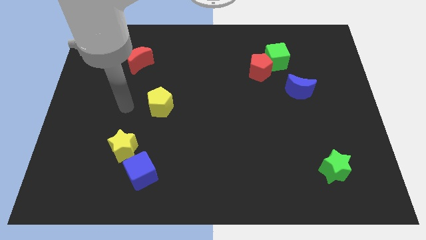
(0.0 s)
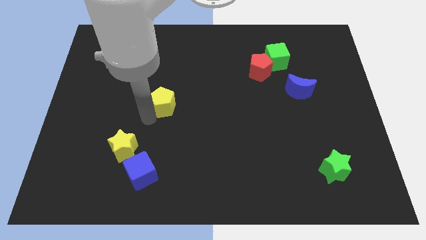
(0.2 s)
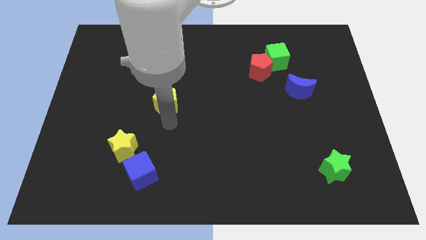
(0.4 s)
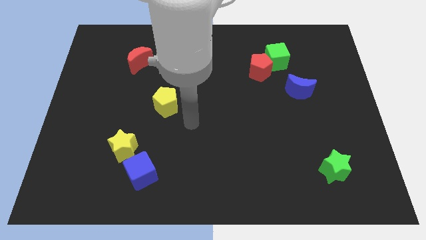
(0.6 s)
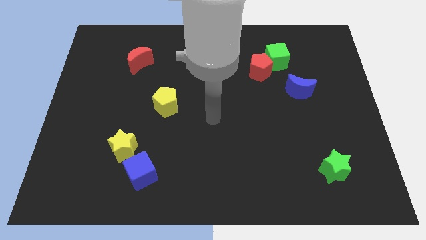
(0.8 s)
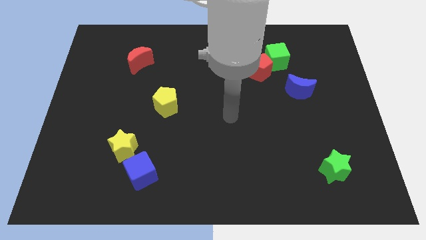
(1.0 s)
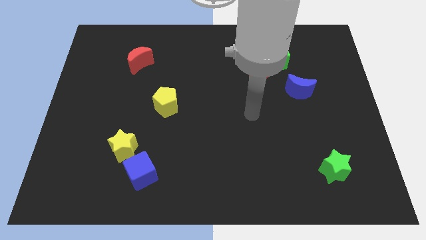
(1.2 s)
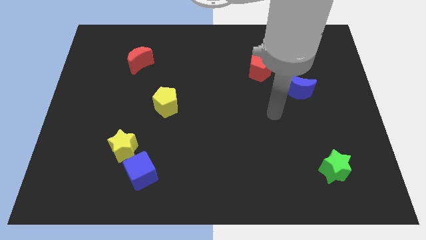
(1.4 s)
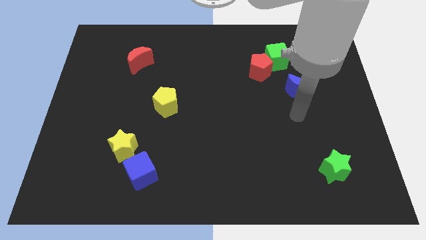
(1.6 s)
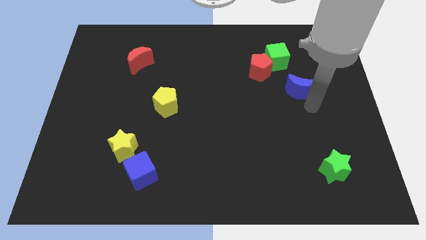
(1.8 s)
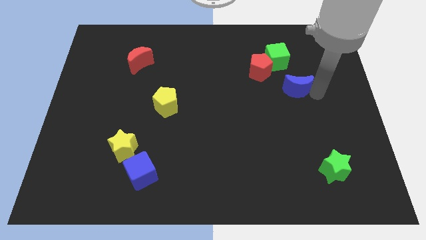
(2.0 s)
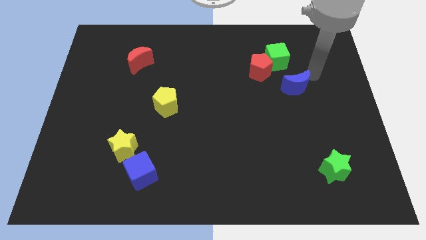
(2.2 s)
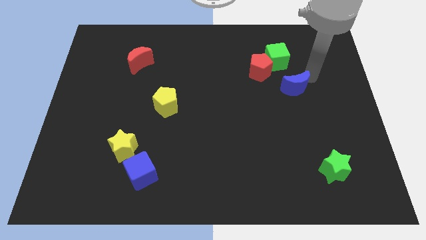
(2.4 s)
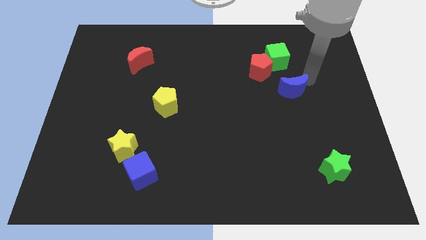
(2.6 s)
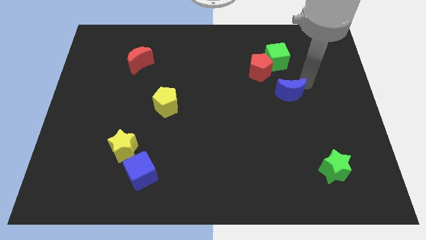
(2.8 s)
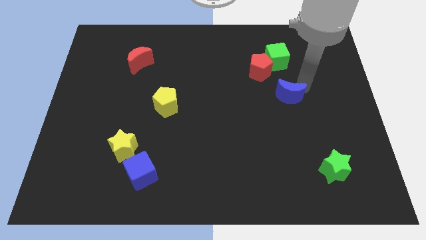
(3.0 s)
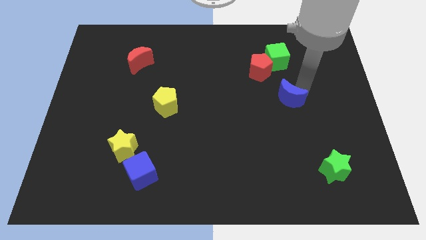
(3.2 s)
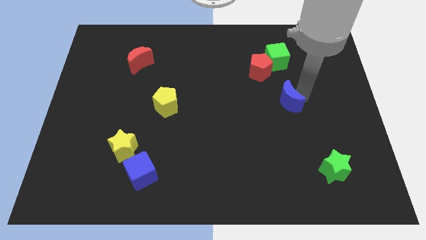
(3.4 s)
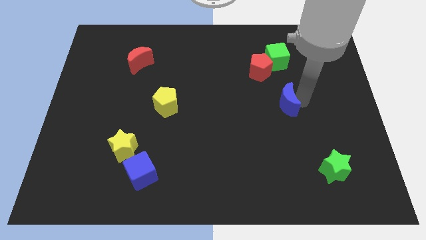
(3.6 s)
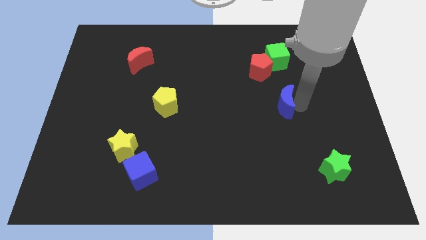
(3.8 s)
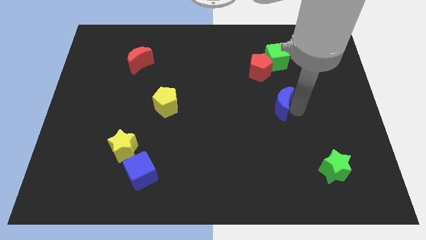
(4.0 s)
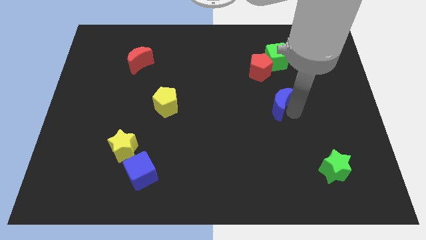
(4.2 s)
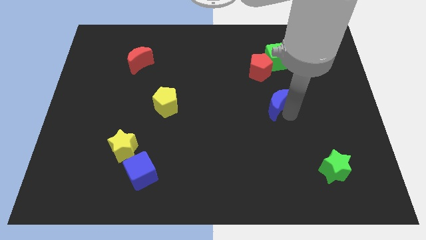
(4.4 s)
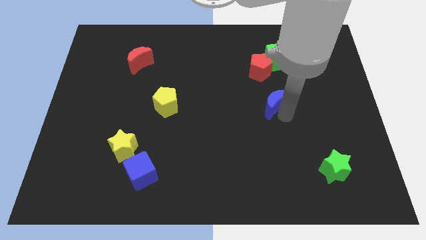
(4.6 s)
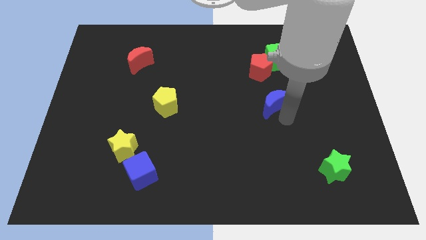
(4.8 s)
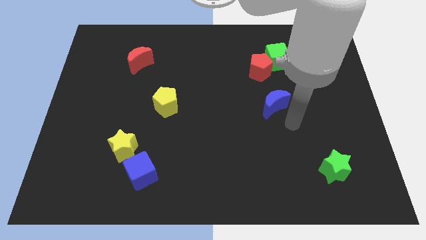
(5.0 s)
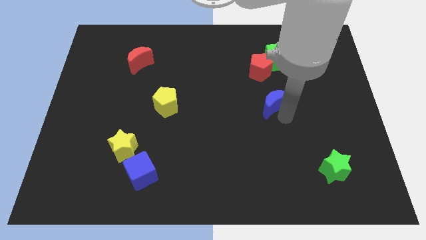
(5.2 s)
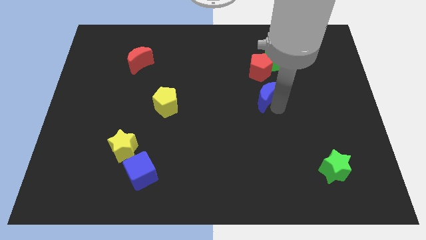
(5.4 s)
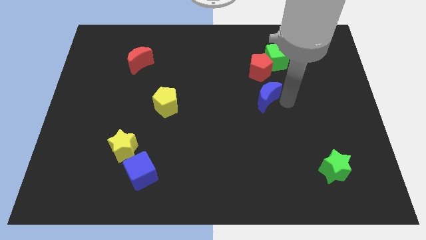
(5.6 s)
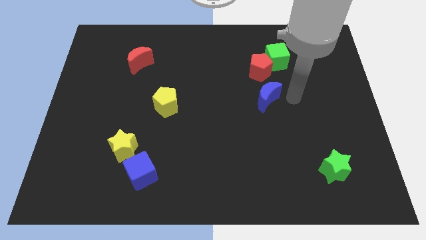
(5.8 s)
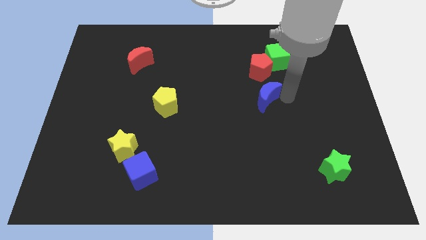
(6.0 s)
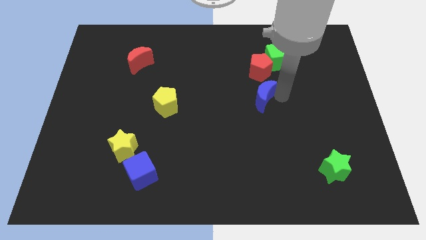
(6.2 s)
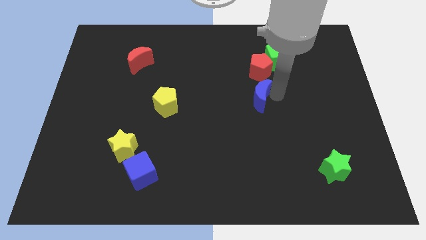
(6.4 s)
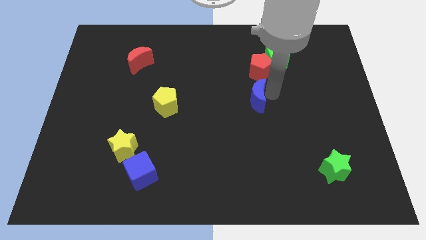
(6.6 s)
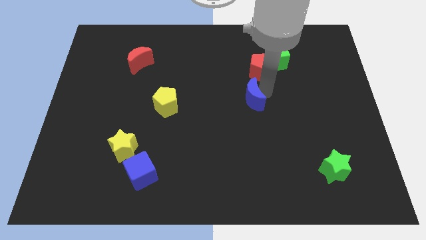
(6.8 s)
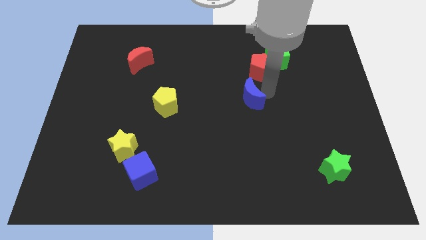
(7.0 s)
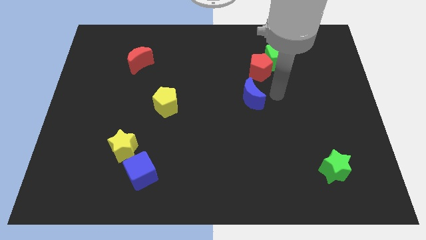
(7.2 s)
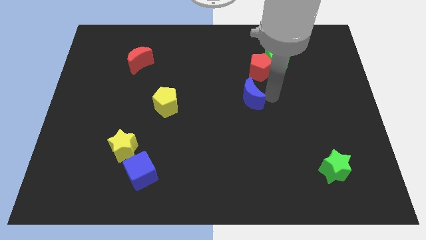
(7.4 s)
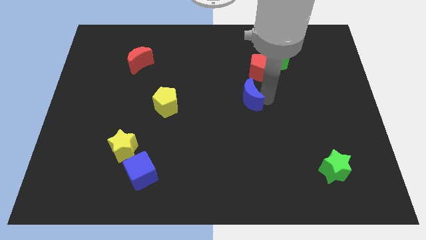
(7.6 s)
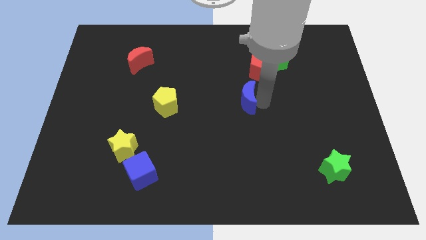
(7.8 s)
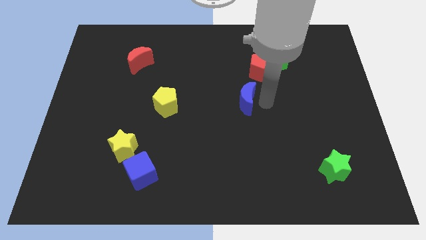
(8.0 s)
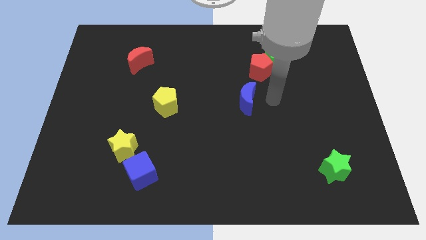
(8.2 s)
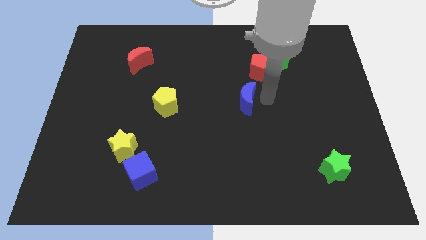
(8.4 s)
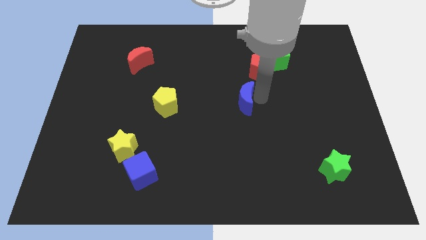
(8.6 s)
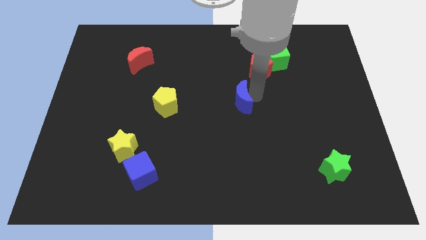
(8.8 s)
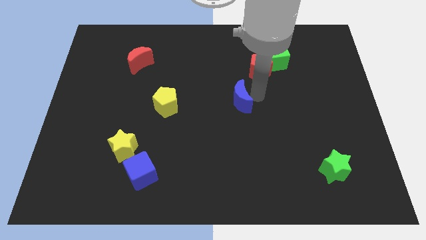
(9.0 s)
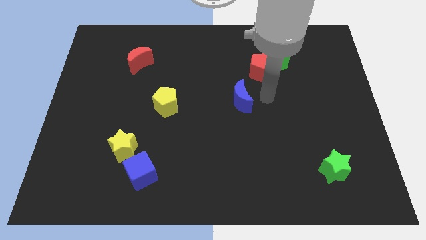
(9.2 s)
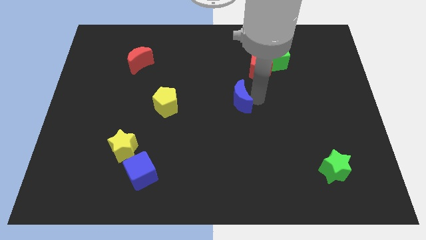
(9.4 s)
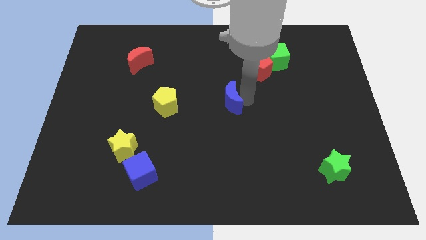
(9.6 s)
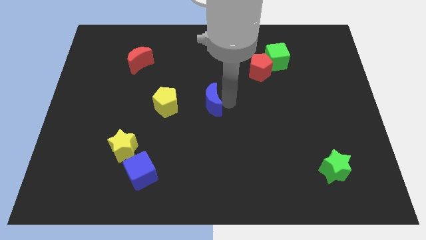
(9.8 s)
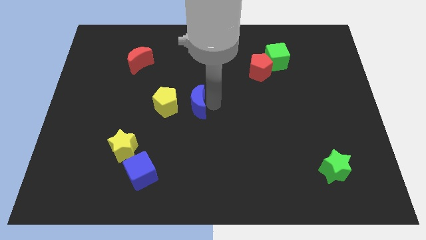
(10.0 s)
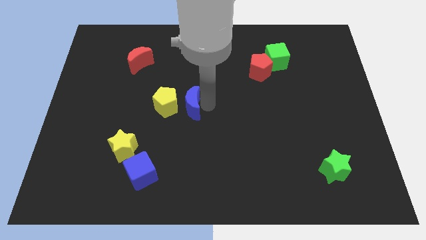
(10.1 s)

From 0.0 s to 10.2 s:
push the blue moon next to the yellow pentagon
